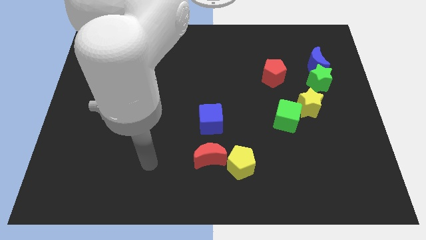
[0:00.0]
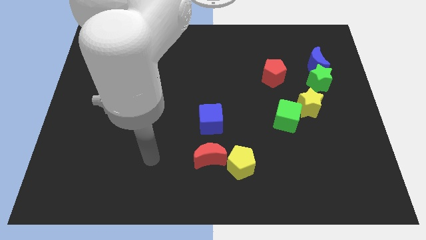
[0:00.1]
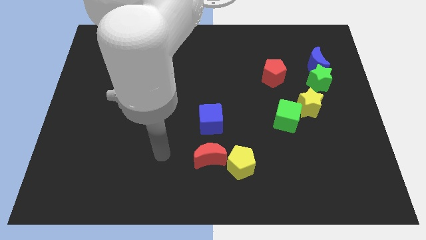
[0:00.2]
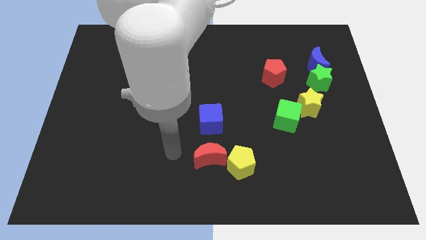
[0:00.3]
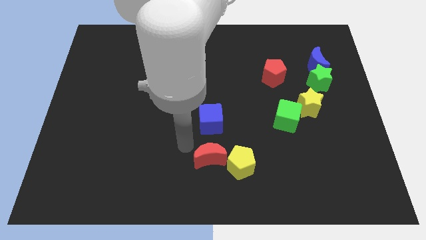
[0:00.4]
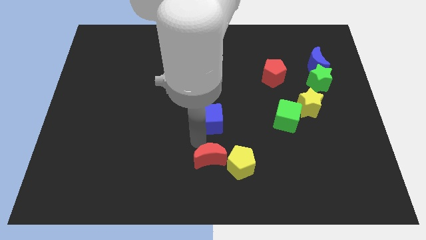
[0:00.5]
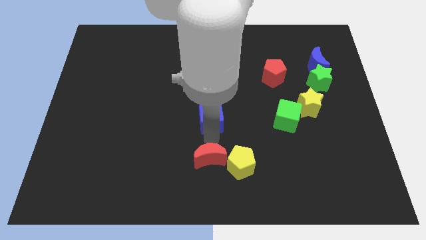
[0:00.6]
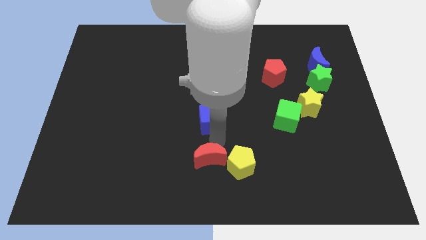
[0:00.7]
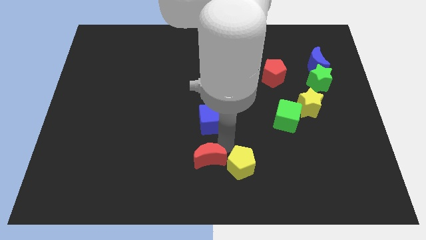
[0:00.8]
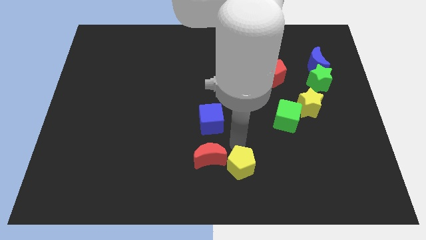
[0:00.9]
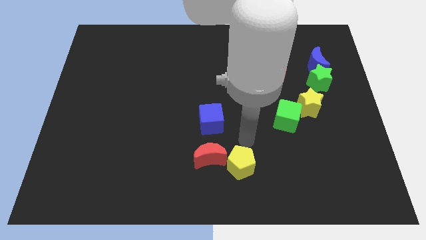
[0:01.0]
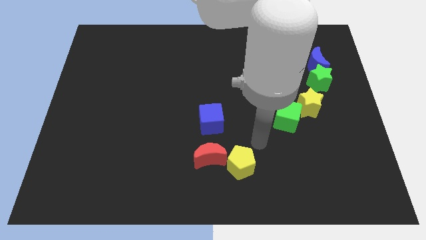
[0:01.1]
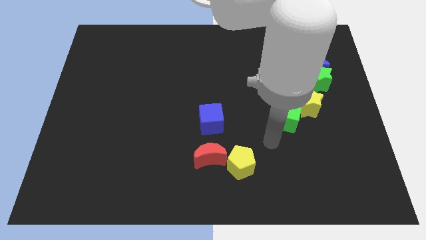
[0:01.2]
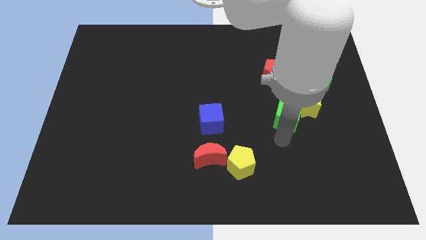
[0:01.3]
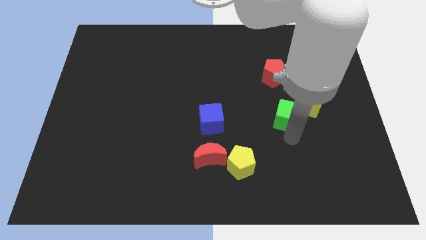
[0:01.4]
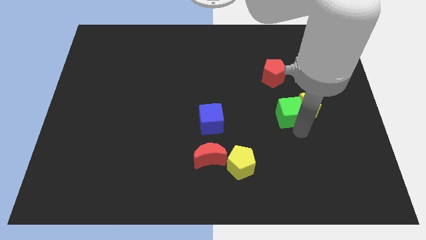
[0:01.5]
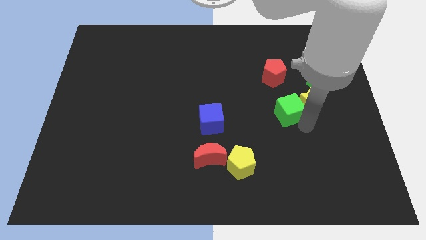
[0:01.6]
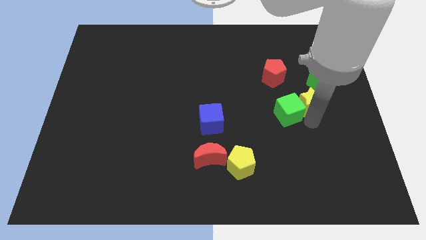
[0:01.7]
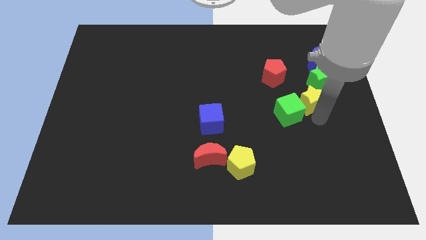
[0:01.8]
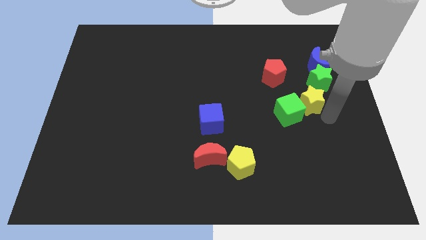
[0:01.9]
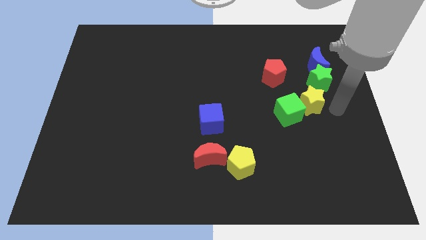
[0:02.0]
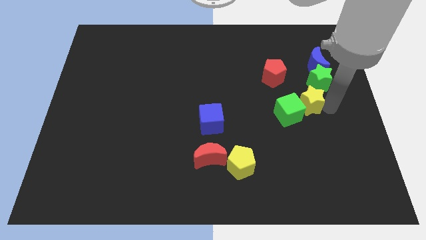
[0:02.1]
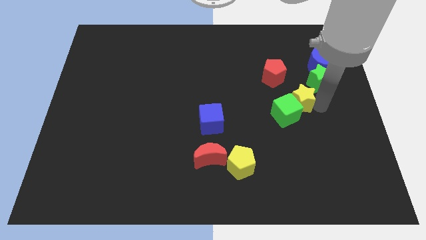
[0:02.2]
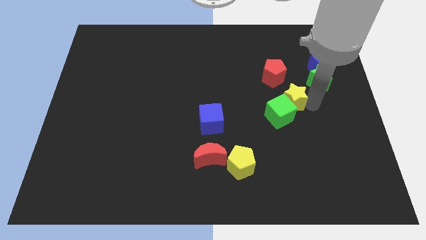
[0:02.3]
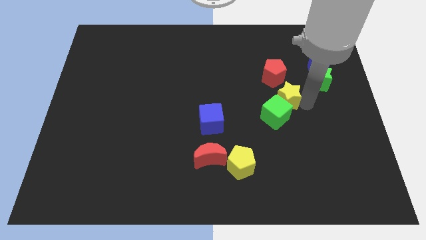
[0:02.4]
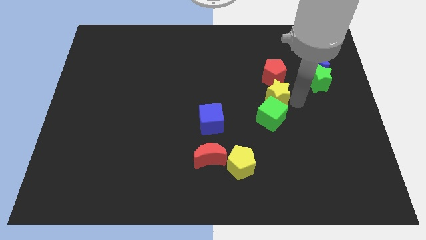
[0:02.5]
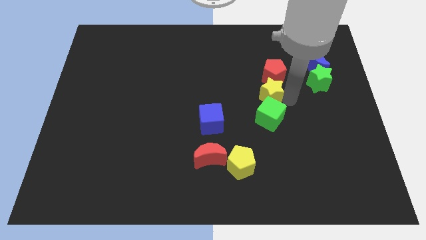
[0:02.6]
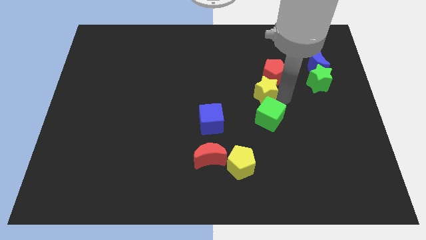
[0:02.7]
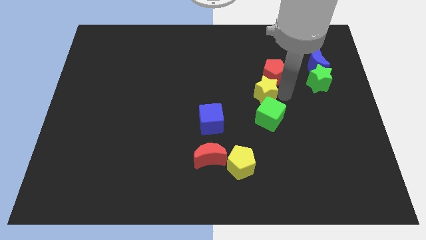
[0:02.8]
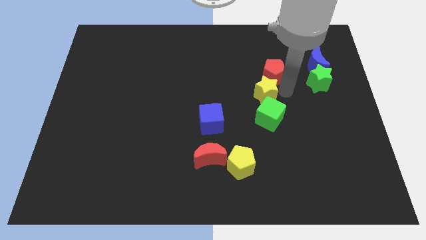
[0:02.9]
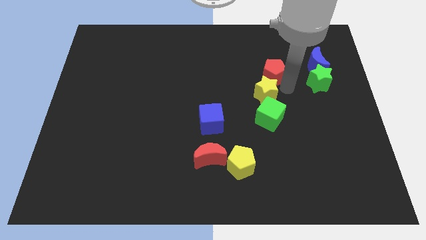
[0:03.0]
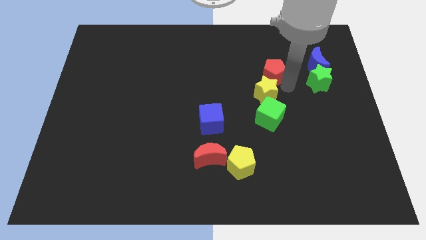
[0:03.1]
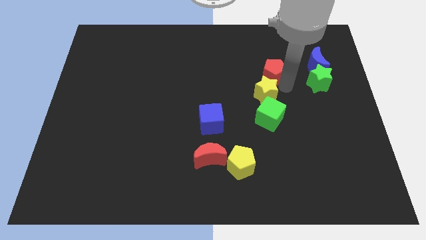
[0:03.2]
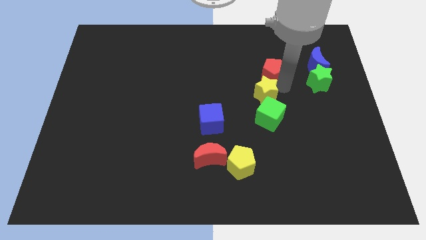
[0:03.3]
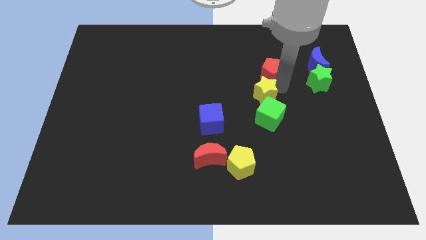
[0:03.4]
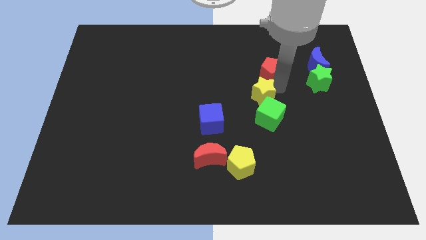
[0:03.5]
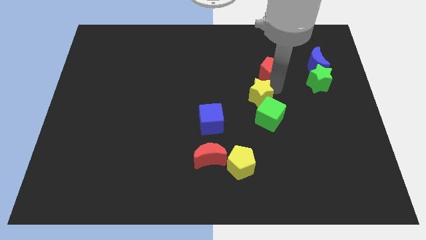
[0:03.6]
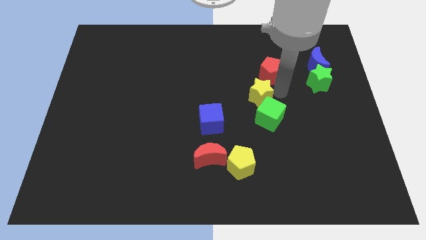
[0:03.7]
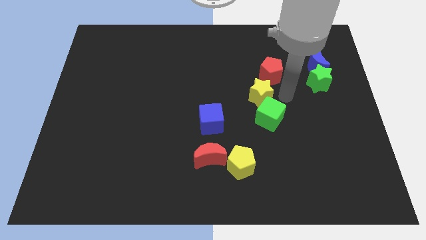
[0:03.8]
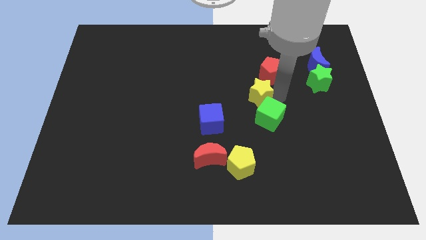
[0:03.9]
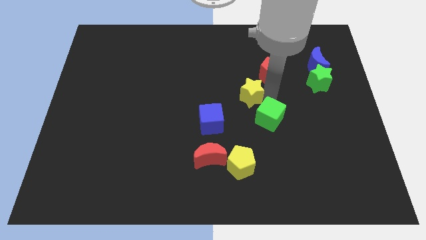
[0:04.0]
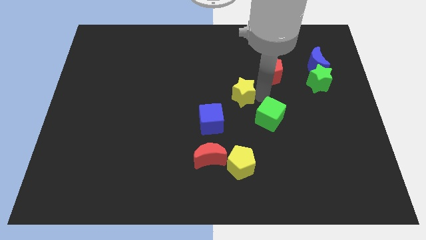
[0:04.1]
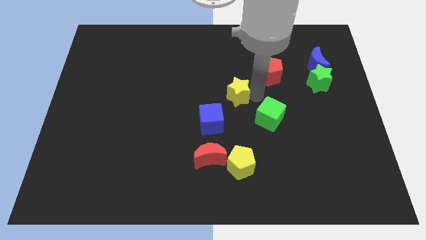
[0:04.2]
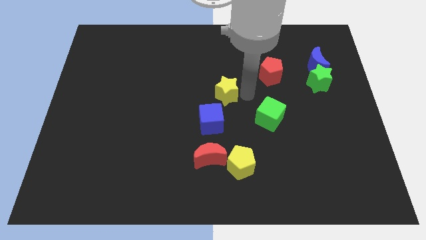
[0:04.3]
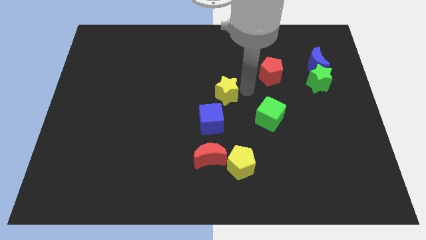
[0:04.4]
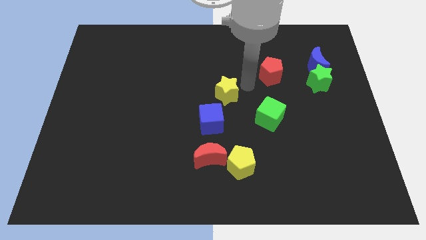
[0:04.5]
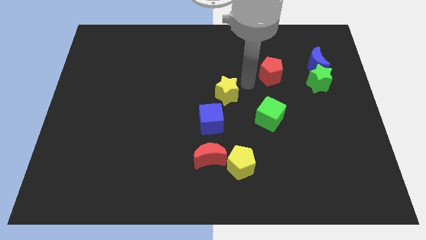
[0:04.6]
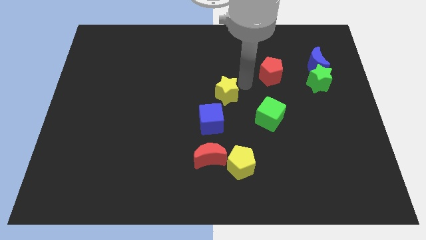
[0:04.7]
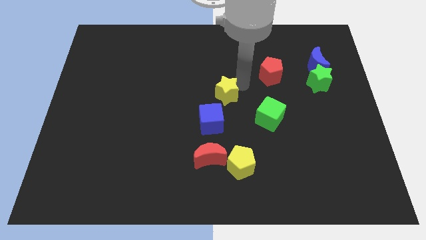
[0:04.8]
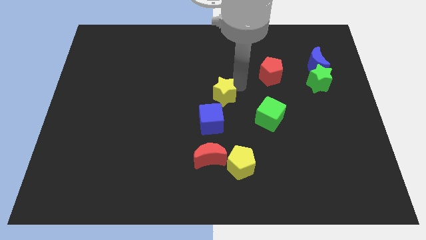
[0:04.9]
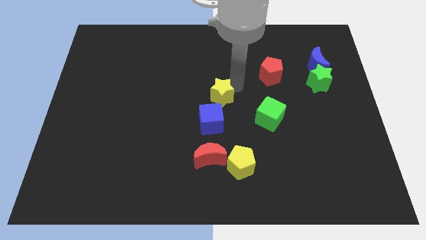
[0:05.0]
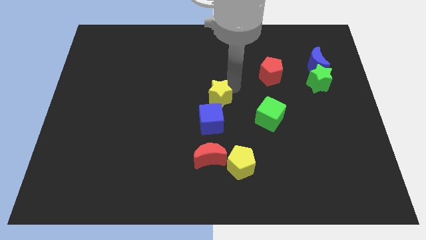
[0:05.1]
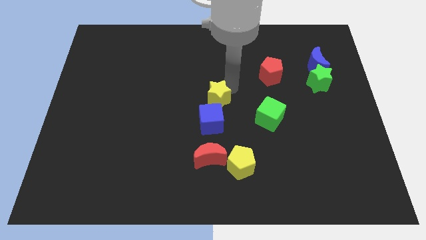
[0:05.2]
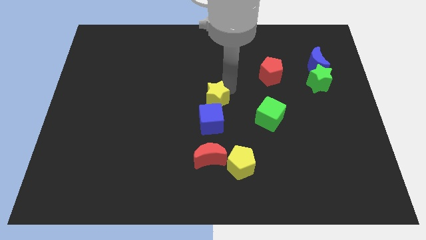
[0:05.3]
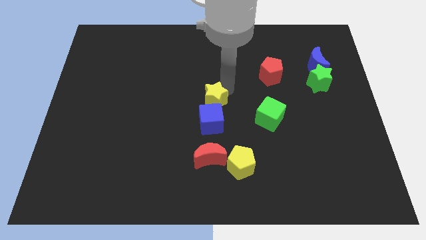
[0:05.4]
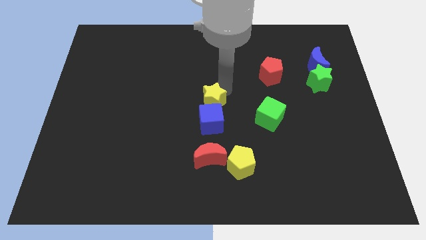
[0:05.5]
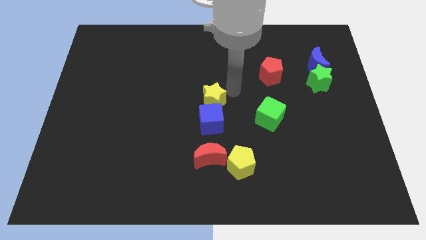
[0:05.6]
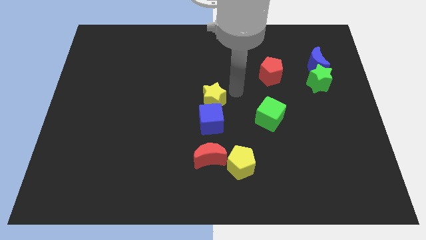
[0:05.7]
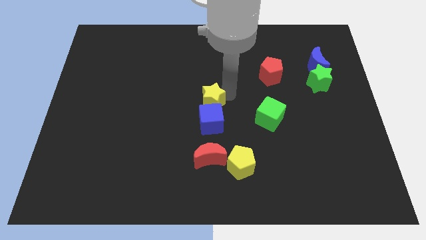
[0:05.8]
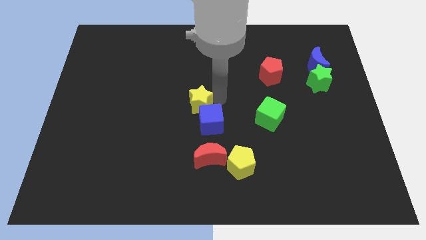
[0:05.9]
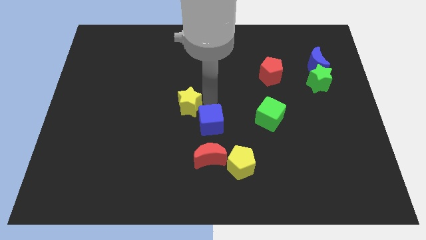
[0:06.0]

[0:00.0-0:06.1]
push the yellow star to the left side of the blue cube

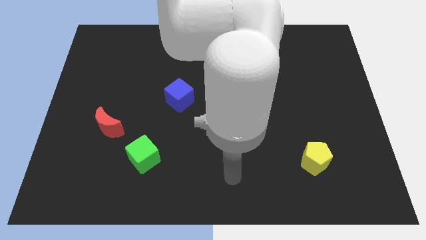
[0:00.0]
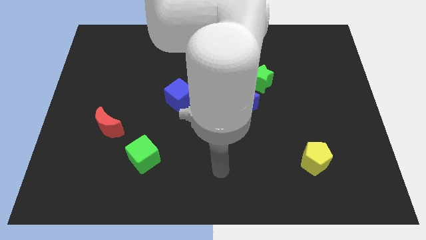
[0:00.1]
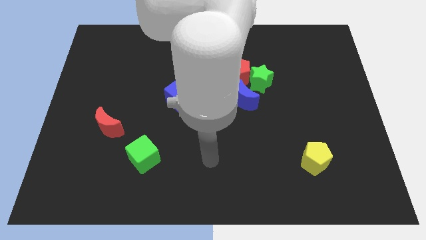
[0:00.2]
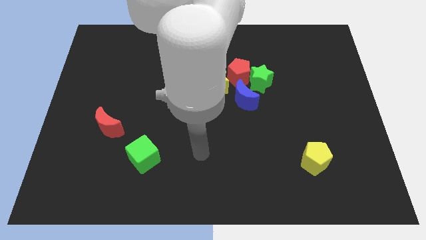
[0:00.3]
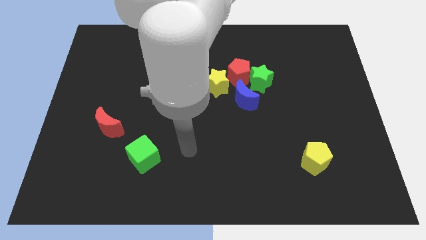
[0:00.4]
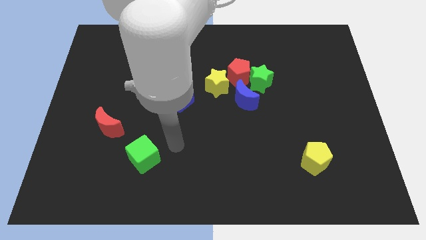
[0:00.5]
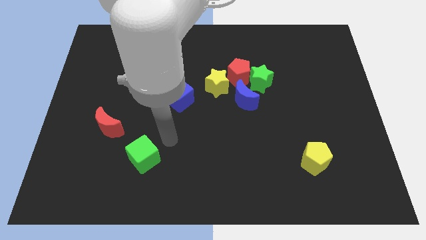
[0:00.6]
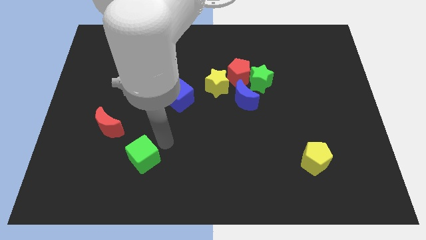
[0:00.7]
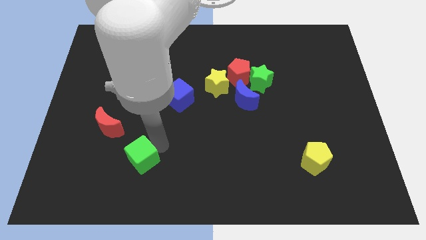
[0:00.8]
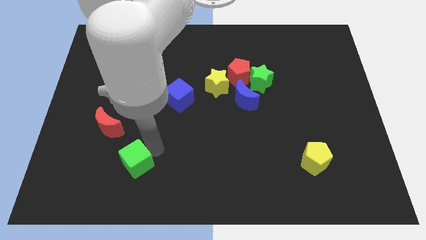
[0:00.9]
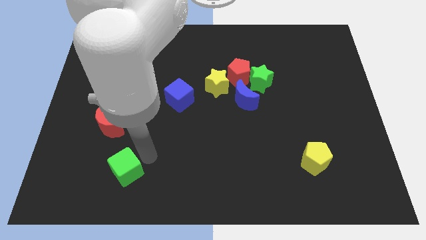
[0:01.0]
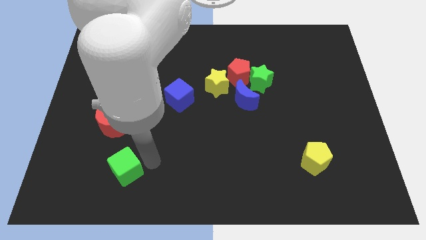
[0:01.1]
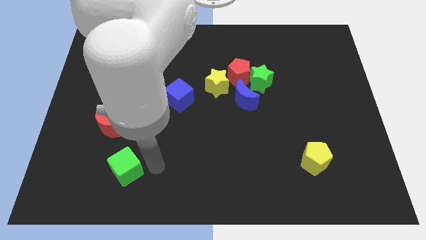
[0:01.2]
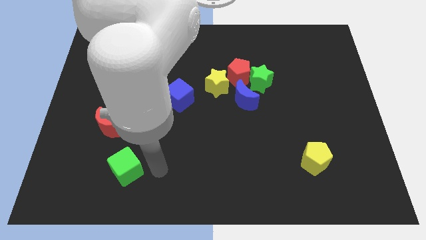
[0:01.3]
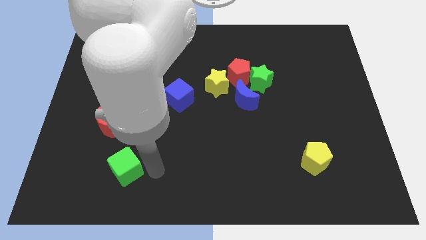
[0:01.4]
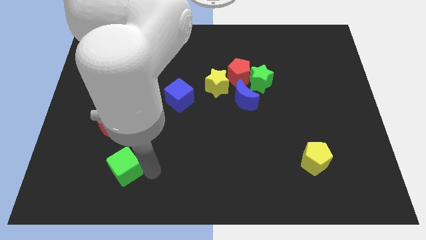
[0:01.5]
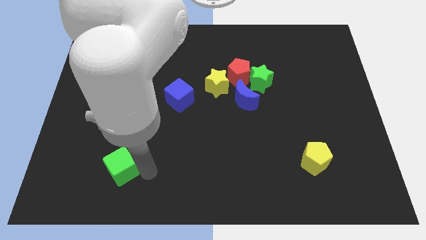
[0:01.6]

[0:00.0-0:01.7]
push the green cube below the red moon
